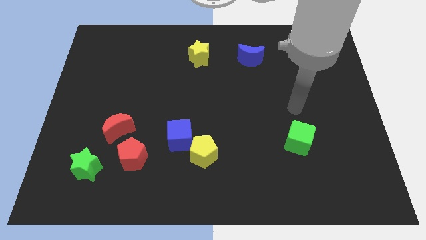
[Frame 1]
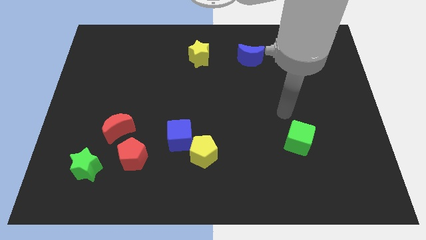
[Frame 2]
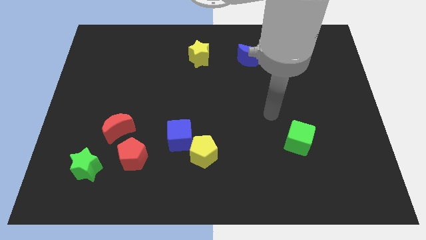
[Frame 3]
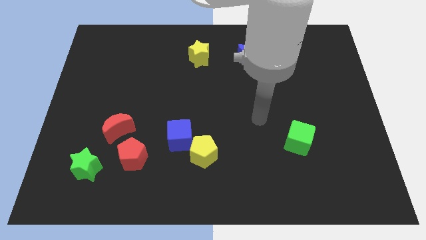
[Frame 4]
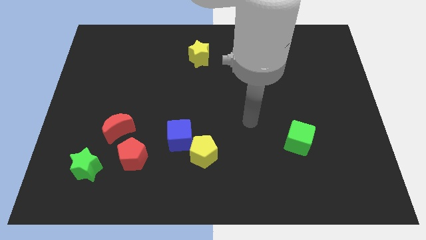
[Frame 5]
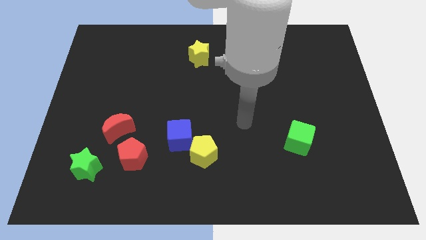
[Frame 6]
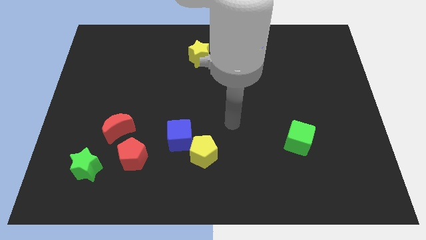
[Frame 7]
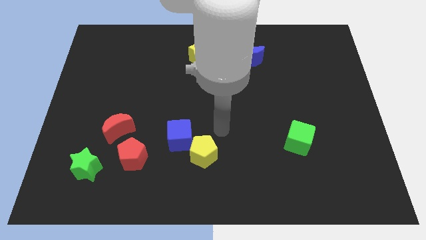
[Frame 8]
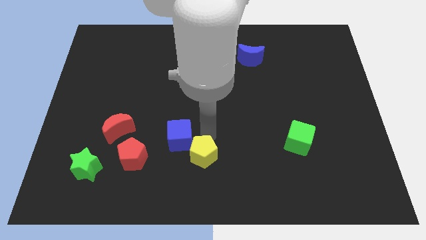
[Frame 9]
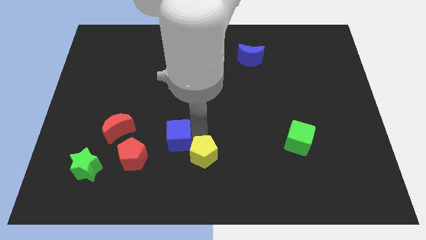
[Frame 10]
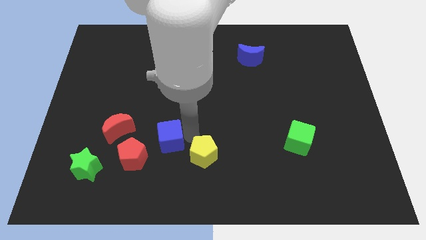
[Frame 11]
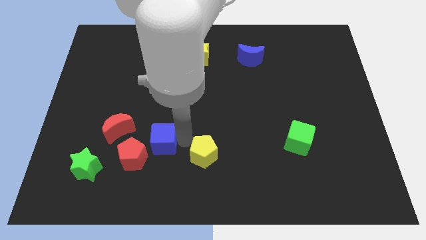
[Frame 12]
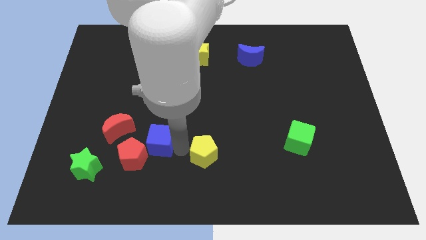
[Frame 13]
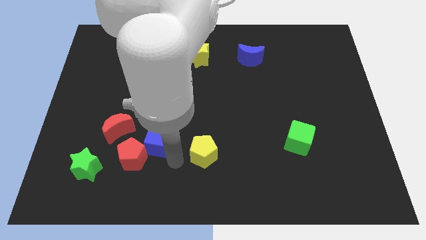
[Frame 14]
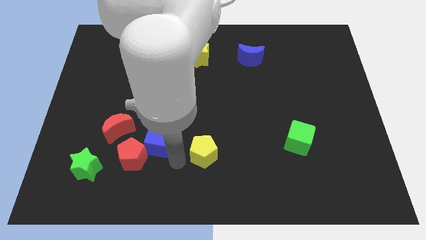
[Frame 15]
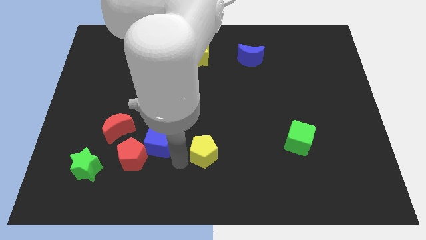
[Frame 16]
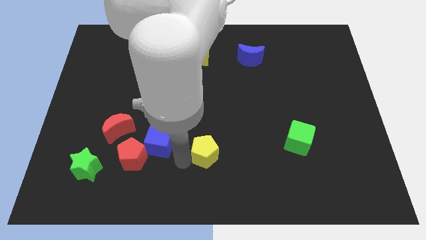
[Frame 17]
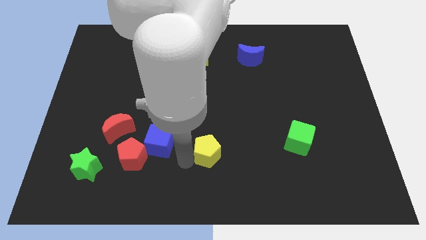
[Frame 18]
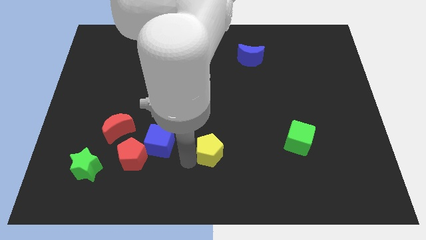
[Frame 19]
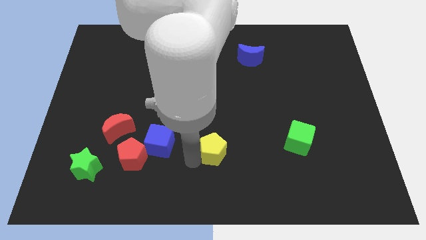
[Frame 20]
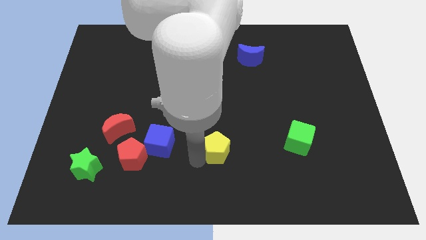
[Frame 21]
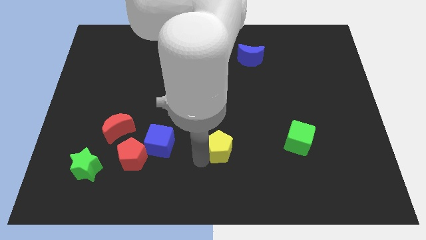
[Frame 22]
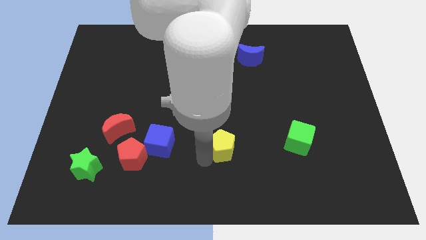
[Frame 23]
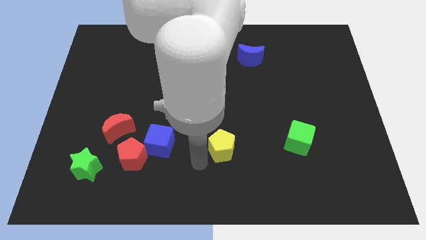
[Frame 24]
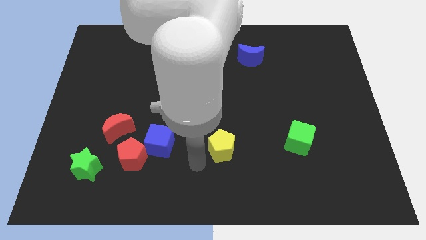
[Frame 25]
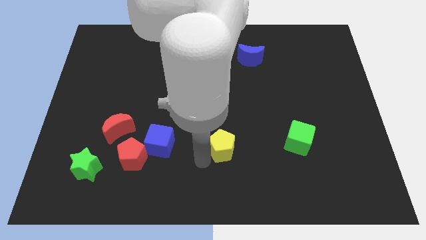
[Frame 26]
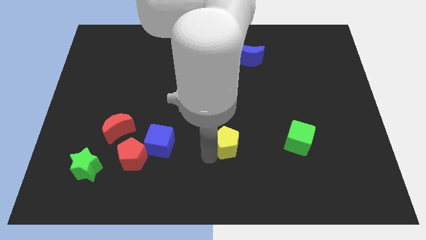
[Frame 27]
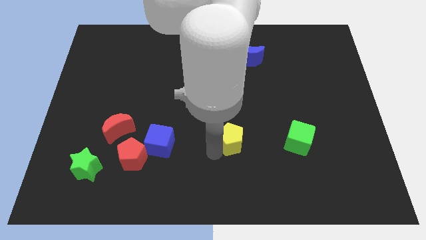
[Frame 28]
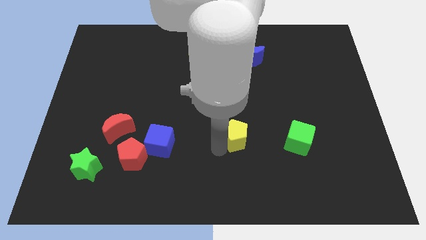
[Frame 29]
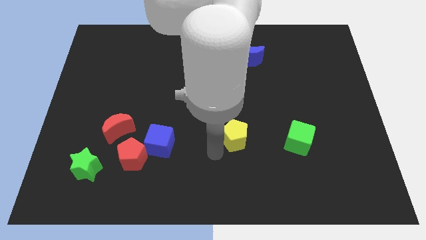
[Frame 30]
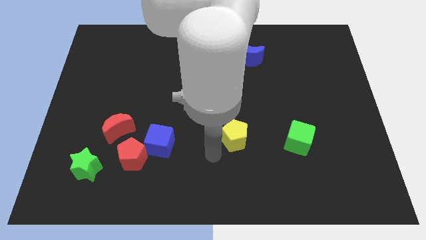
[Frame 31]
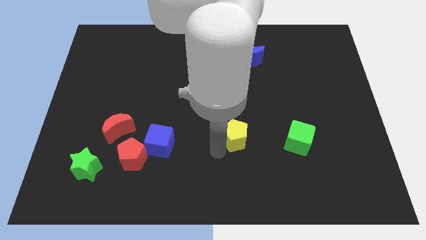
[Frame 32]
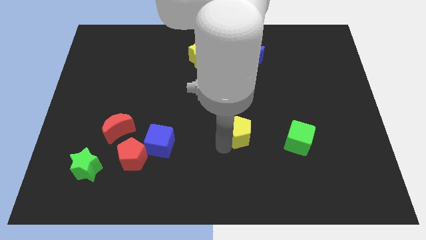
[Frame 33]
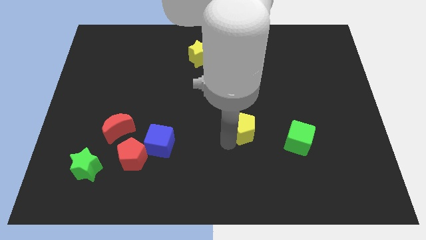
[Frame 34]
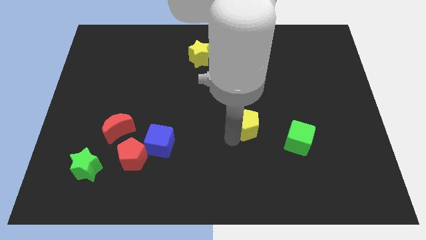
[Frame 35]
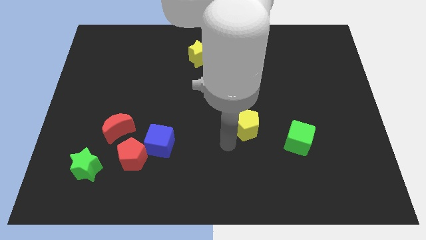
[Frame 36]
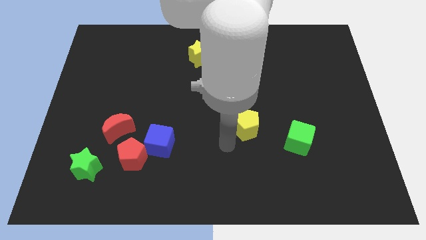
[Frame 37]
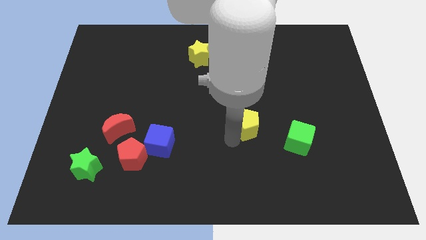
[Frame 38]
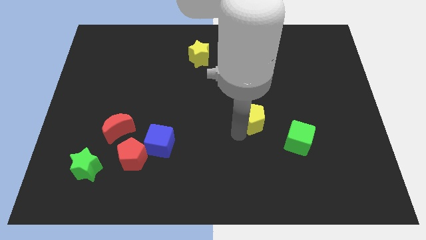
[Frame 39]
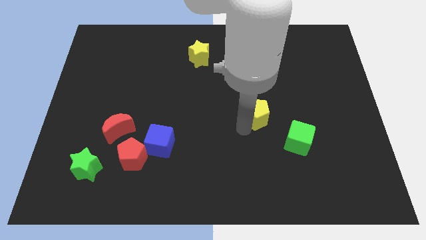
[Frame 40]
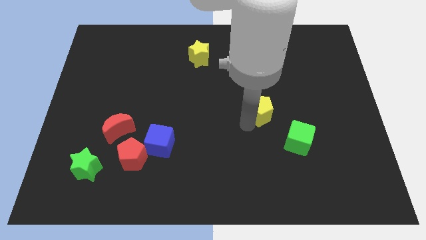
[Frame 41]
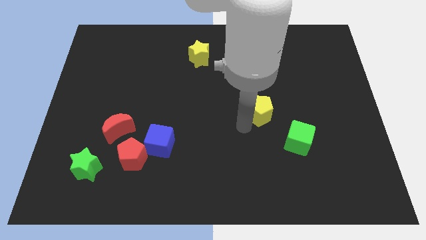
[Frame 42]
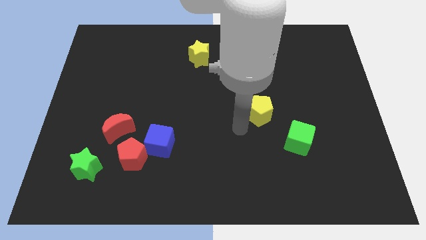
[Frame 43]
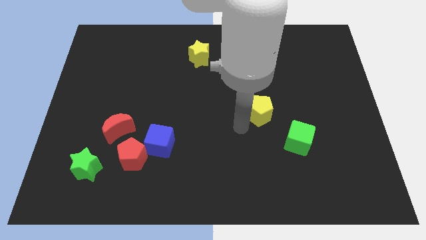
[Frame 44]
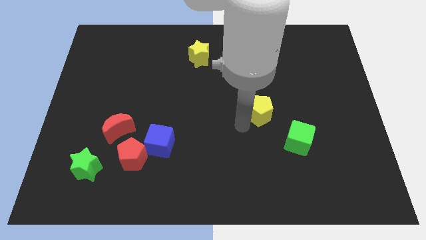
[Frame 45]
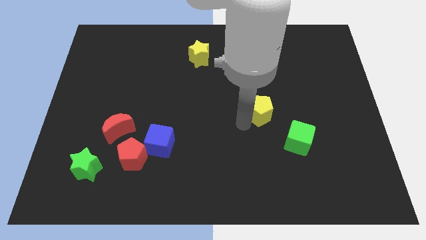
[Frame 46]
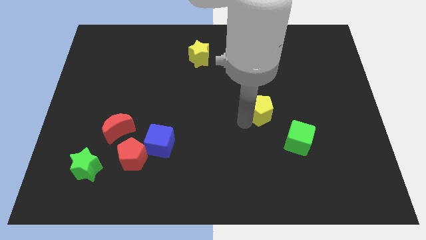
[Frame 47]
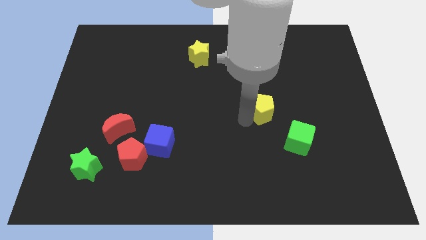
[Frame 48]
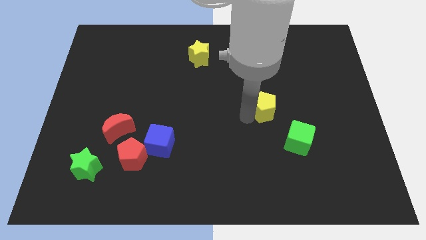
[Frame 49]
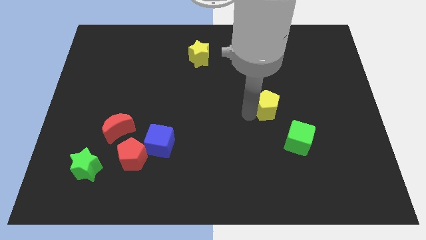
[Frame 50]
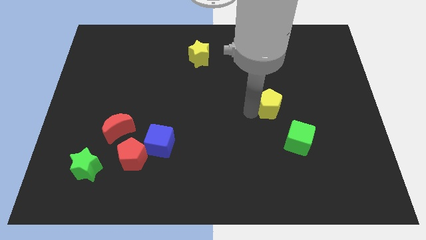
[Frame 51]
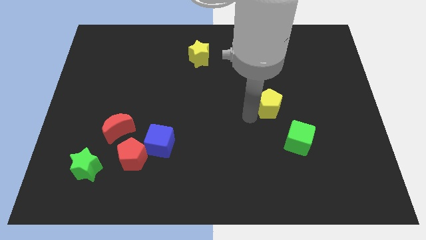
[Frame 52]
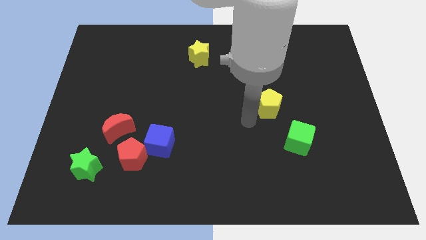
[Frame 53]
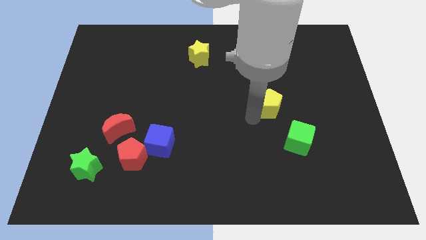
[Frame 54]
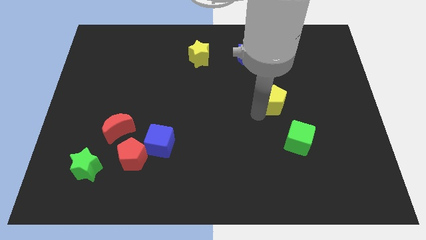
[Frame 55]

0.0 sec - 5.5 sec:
slide the yellow pentagon diagonally up and right

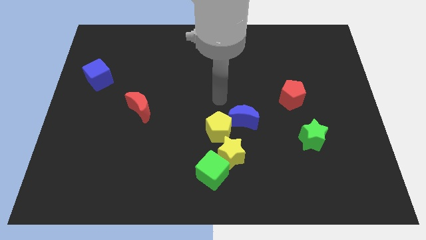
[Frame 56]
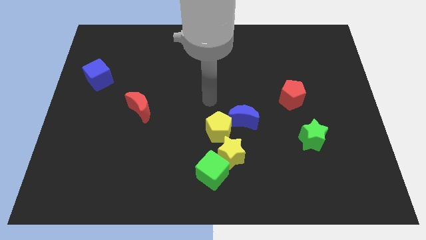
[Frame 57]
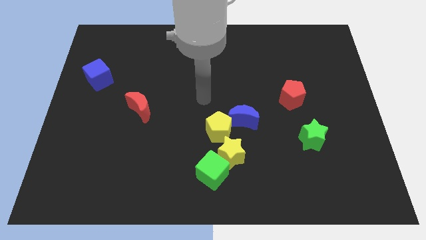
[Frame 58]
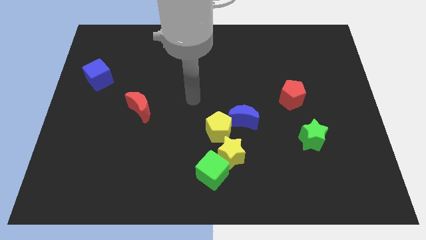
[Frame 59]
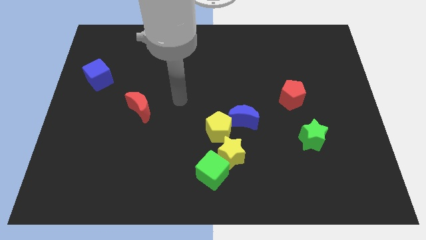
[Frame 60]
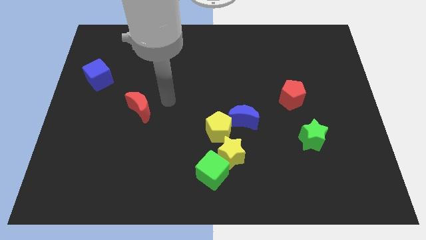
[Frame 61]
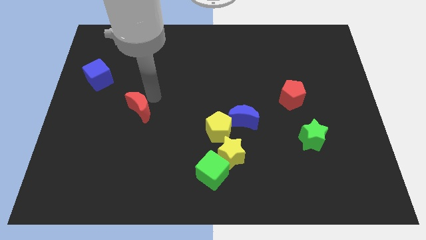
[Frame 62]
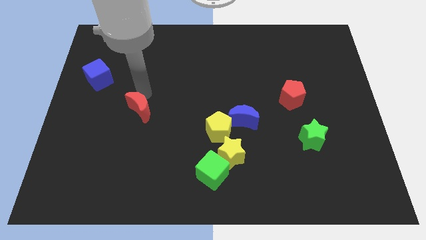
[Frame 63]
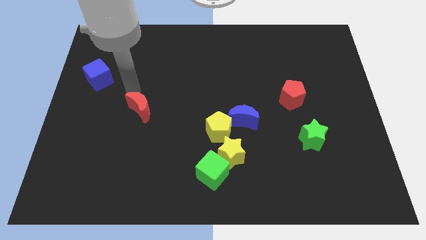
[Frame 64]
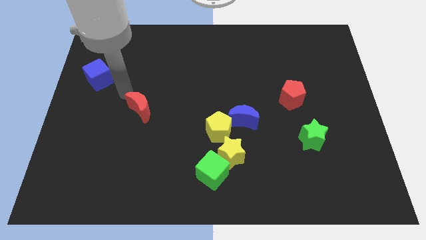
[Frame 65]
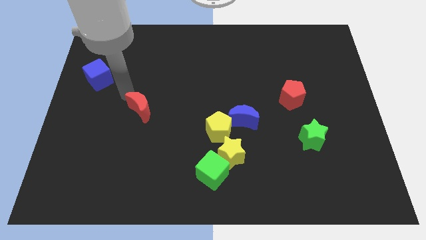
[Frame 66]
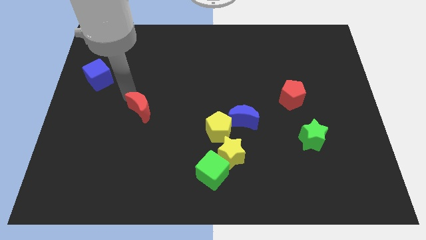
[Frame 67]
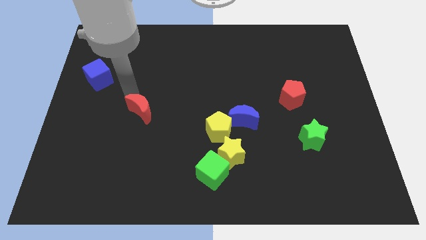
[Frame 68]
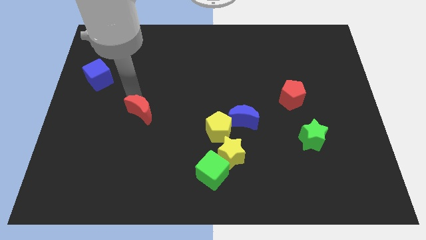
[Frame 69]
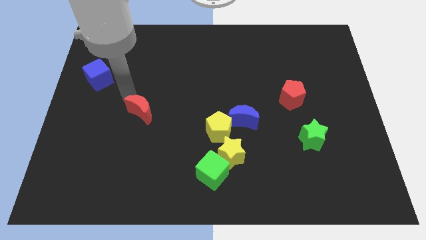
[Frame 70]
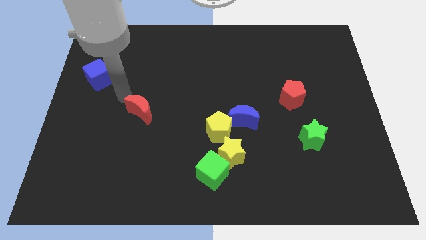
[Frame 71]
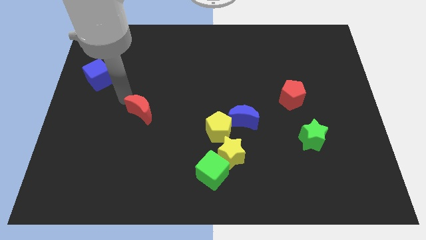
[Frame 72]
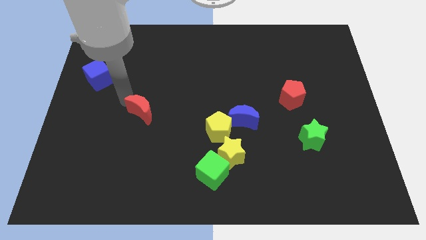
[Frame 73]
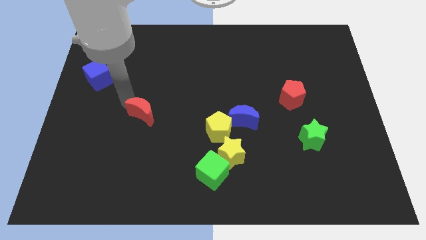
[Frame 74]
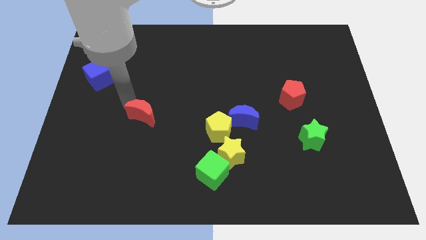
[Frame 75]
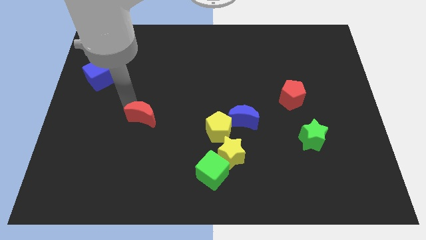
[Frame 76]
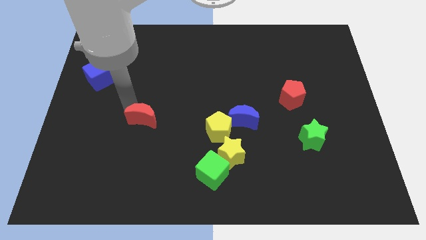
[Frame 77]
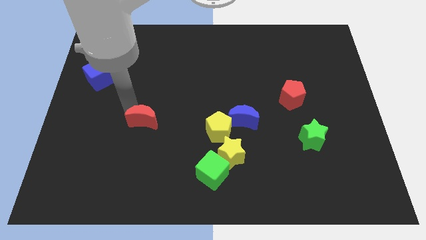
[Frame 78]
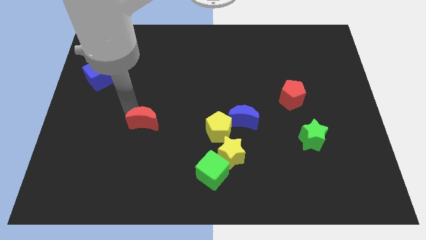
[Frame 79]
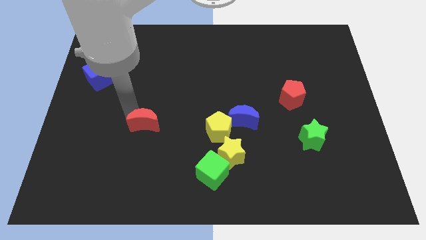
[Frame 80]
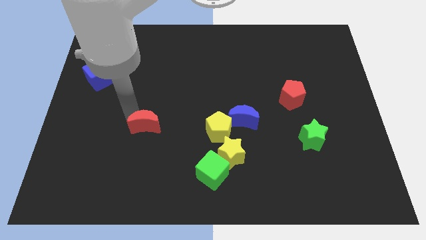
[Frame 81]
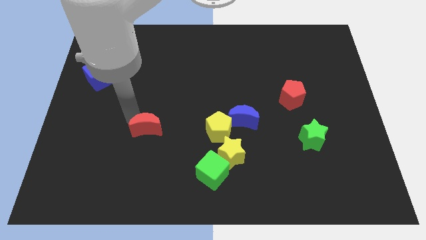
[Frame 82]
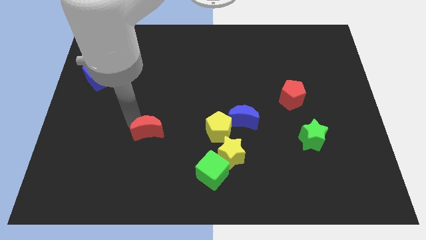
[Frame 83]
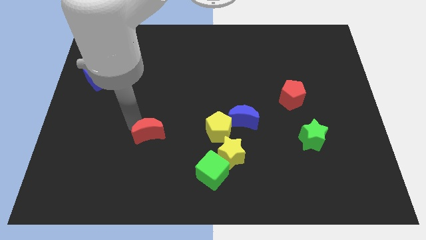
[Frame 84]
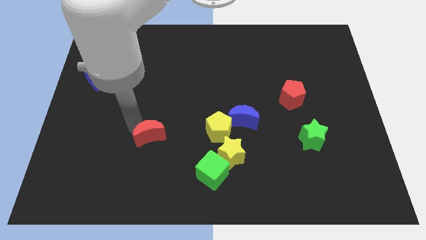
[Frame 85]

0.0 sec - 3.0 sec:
slightly slide the red moon down and right

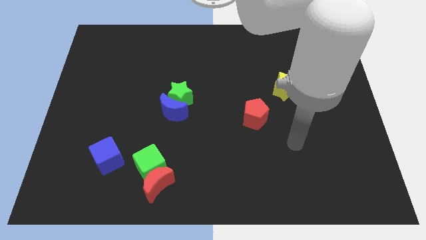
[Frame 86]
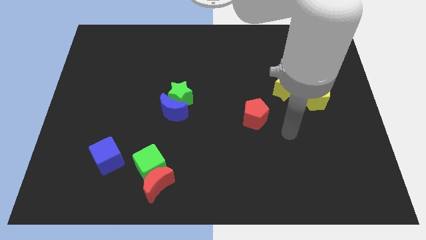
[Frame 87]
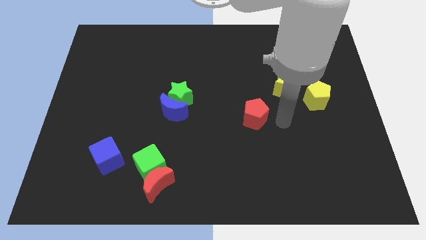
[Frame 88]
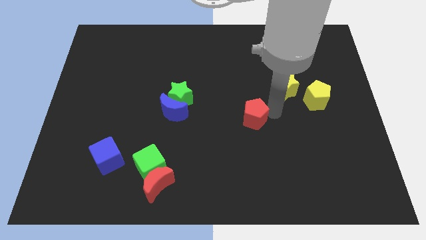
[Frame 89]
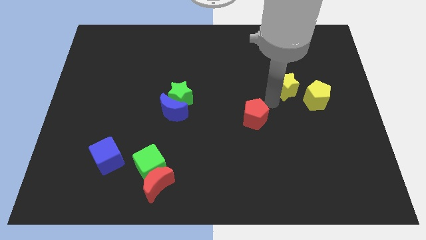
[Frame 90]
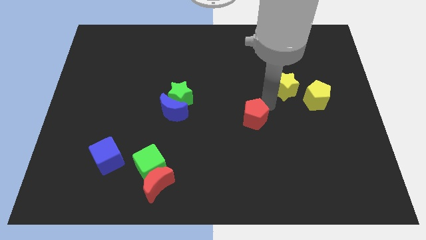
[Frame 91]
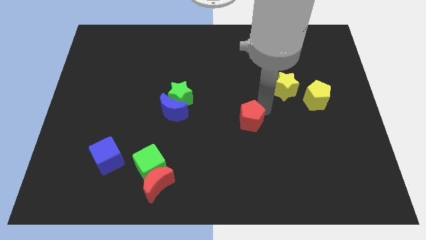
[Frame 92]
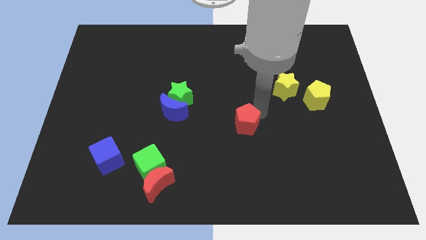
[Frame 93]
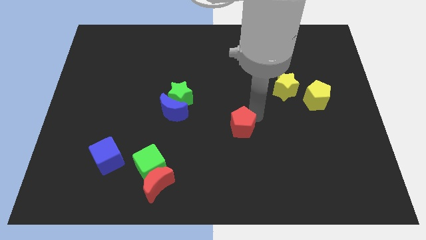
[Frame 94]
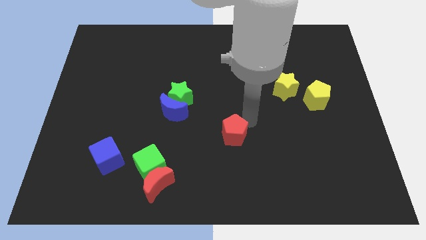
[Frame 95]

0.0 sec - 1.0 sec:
push the red pentagon downwards and left diagonally somewhat
